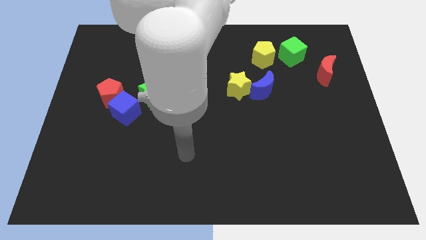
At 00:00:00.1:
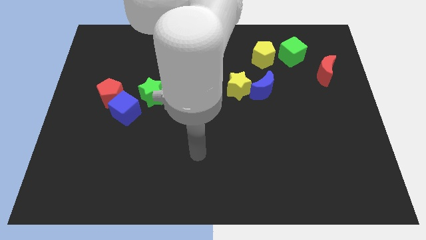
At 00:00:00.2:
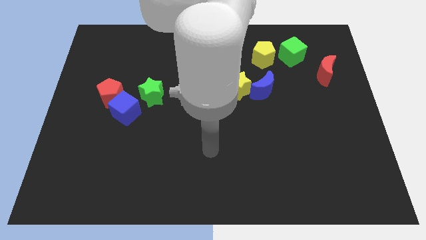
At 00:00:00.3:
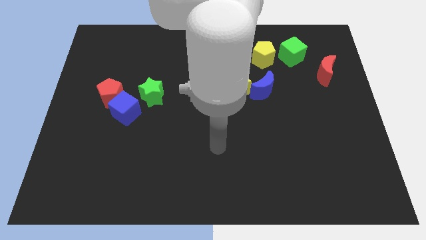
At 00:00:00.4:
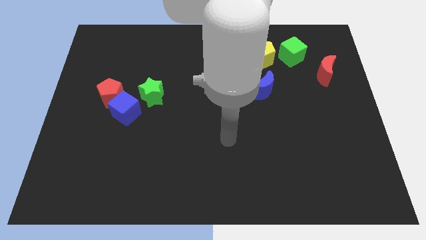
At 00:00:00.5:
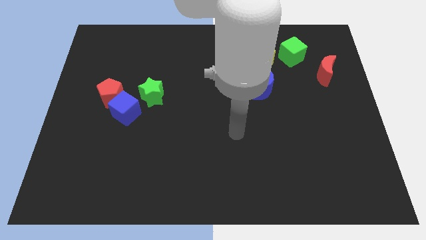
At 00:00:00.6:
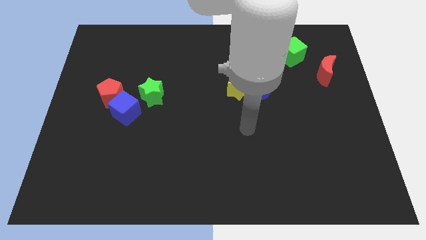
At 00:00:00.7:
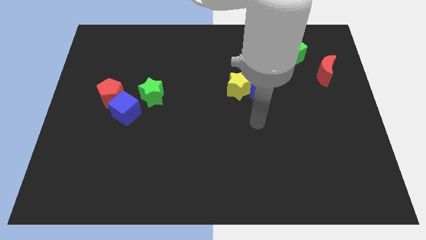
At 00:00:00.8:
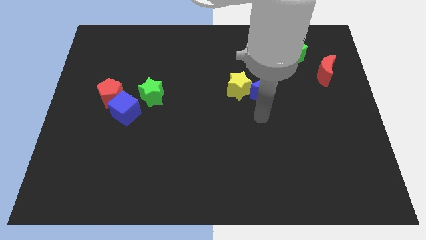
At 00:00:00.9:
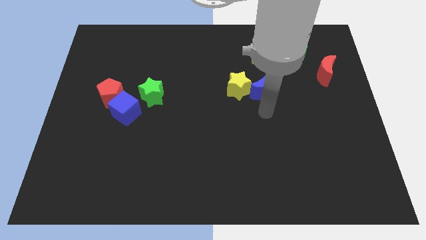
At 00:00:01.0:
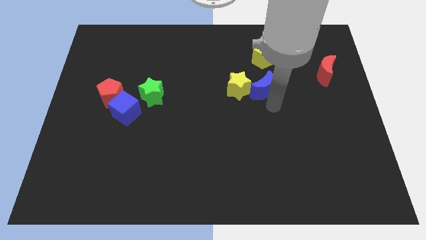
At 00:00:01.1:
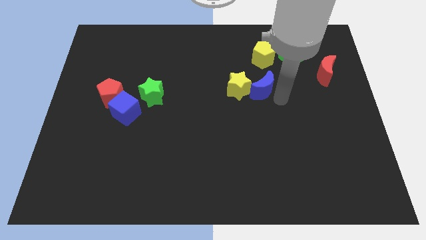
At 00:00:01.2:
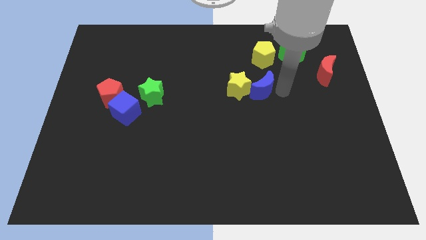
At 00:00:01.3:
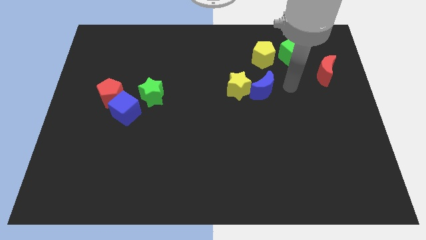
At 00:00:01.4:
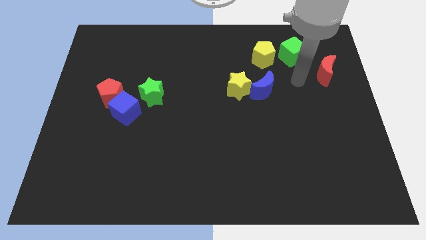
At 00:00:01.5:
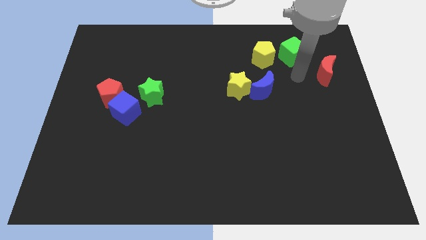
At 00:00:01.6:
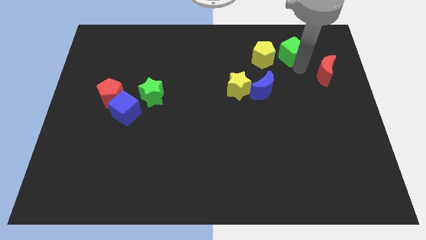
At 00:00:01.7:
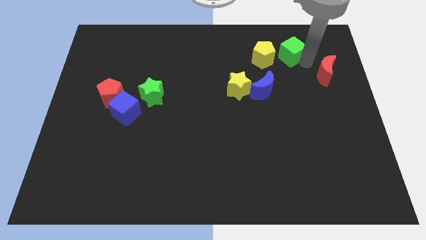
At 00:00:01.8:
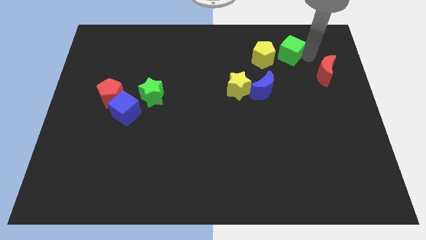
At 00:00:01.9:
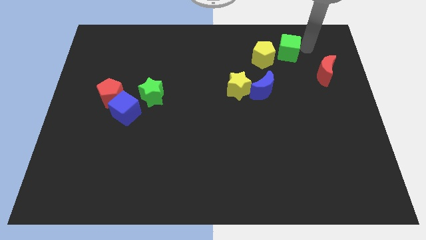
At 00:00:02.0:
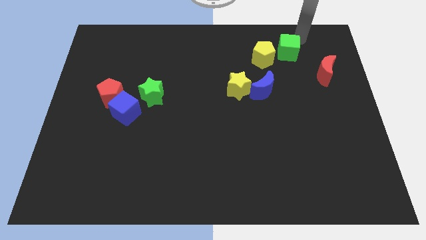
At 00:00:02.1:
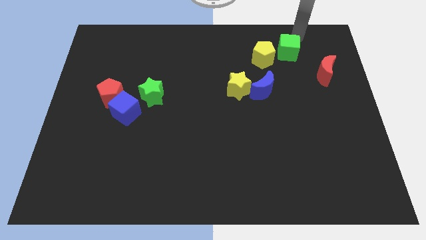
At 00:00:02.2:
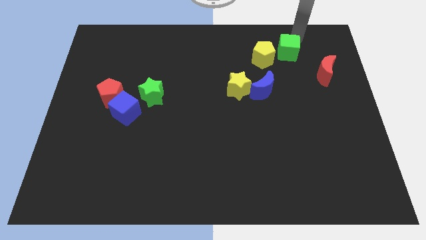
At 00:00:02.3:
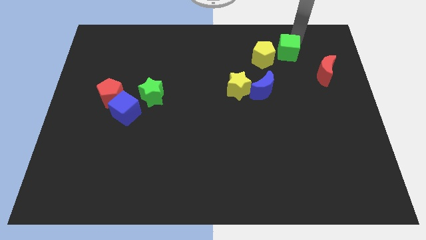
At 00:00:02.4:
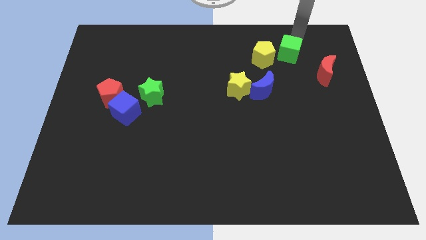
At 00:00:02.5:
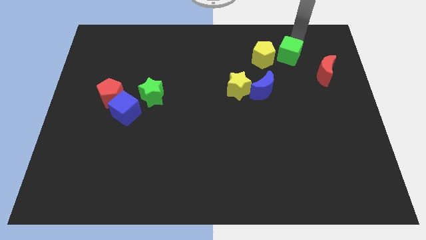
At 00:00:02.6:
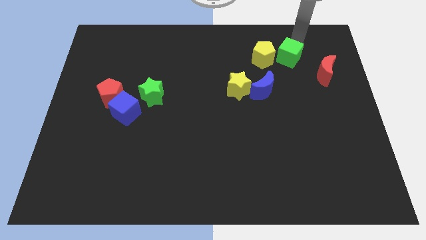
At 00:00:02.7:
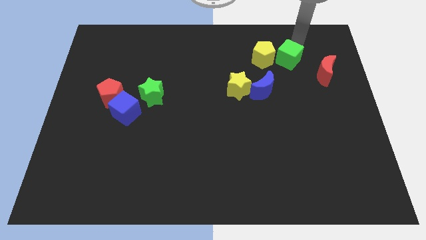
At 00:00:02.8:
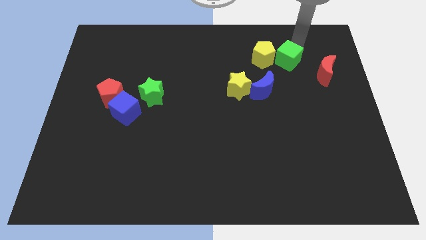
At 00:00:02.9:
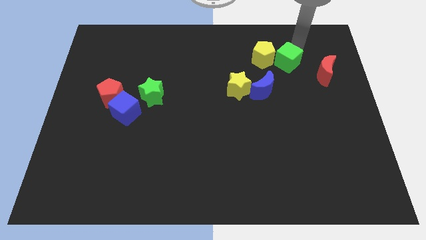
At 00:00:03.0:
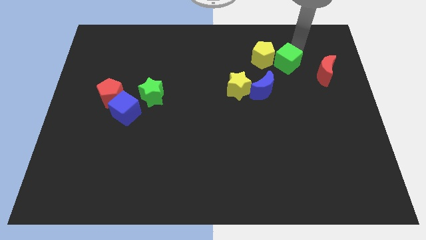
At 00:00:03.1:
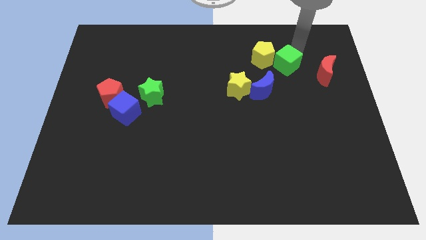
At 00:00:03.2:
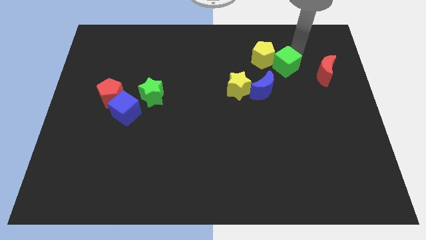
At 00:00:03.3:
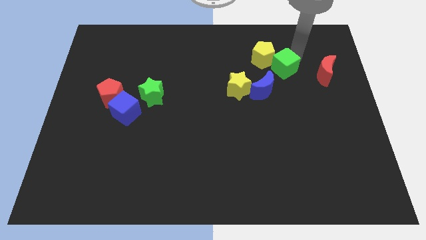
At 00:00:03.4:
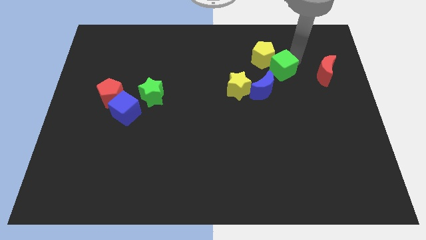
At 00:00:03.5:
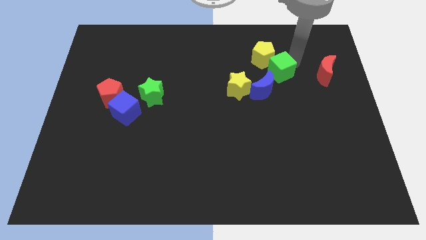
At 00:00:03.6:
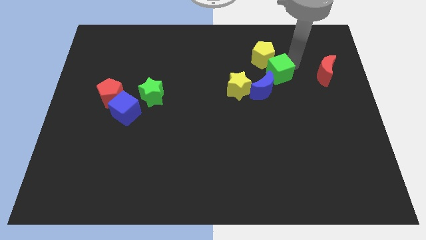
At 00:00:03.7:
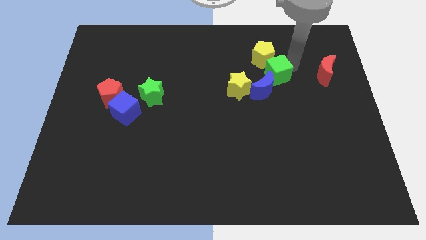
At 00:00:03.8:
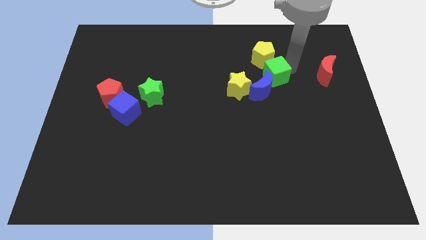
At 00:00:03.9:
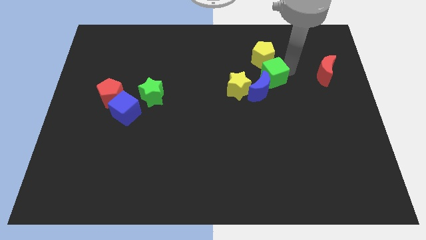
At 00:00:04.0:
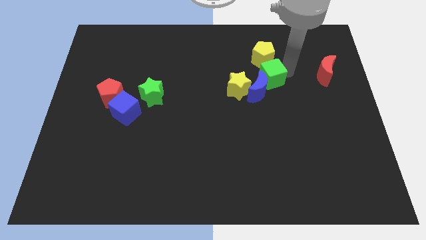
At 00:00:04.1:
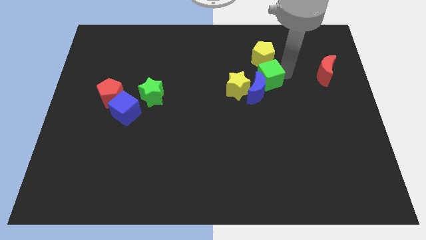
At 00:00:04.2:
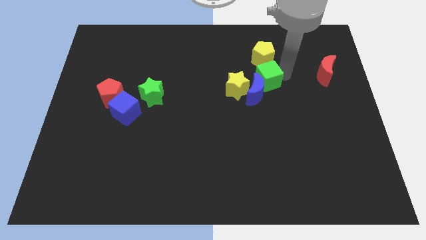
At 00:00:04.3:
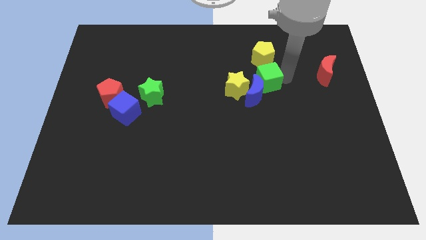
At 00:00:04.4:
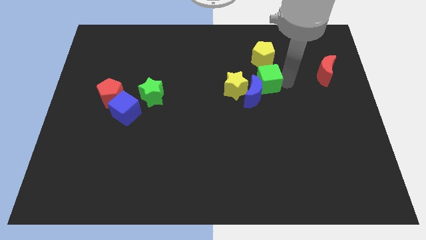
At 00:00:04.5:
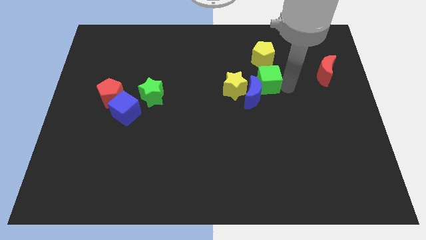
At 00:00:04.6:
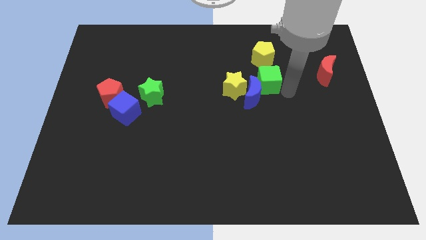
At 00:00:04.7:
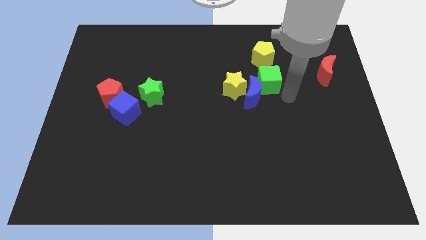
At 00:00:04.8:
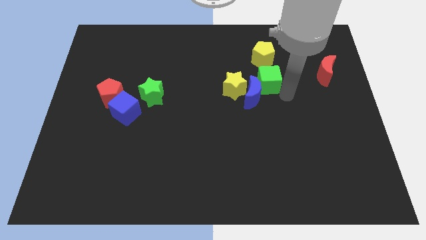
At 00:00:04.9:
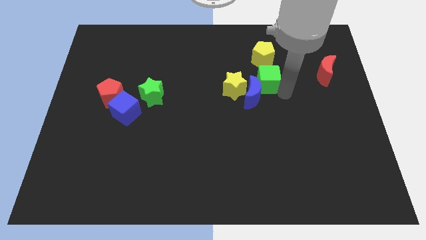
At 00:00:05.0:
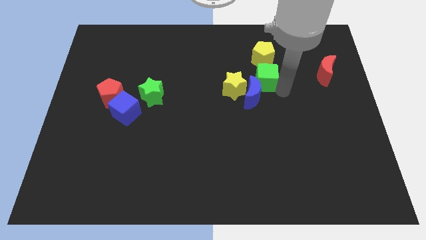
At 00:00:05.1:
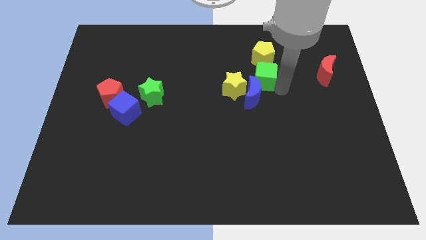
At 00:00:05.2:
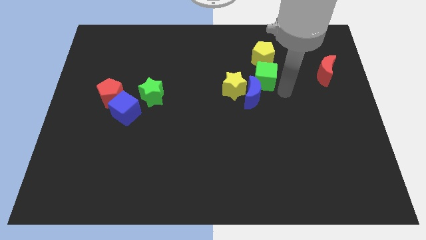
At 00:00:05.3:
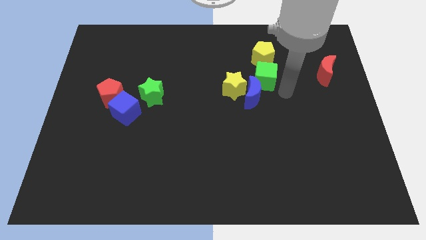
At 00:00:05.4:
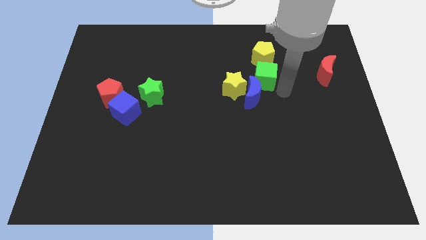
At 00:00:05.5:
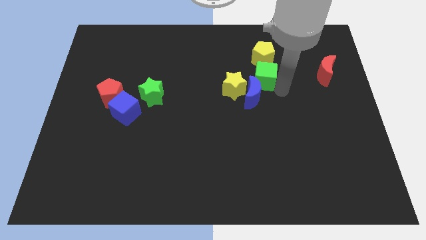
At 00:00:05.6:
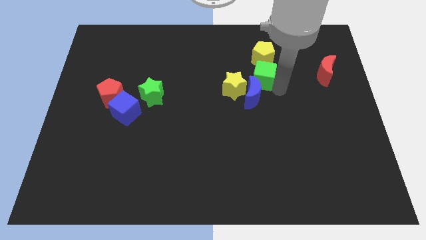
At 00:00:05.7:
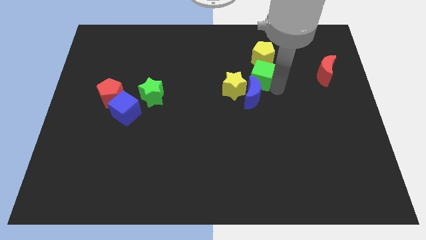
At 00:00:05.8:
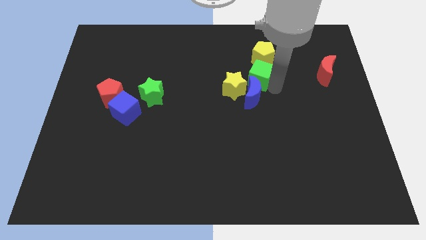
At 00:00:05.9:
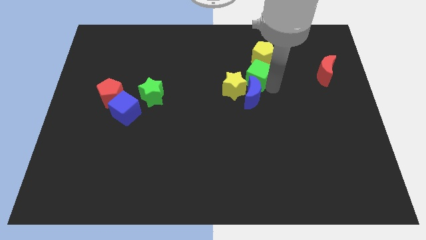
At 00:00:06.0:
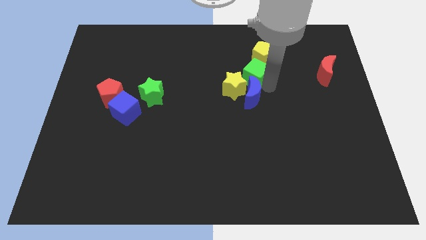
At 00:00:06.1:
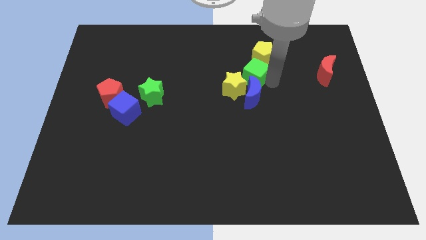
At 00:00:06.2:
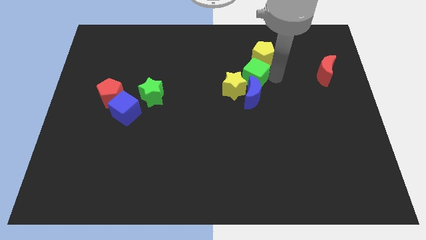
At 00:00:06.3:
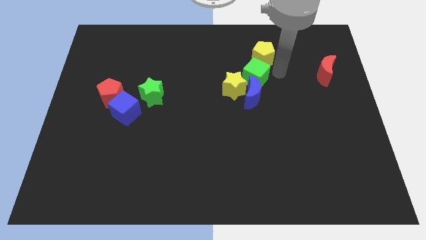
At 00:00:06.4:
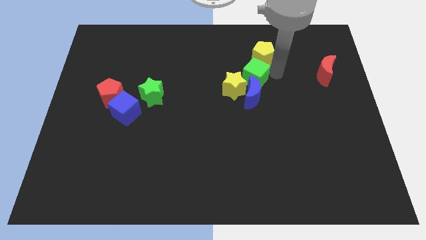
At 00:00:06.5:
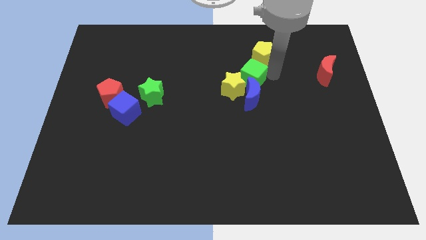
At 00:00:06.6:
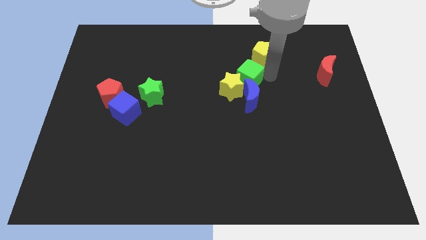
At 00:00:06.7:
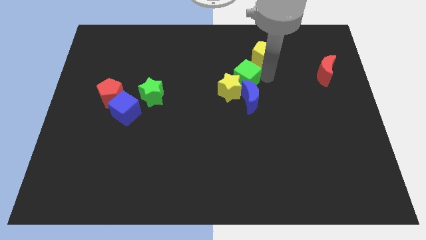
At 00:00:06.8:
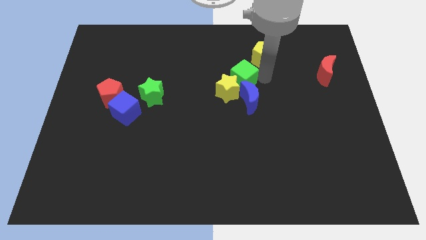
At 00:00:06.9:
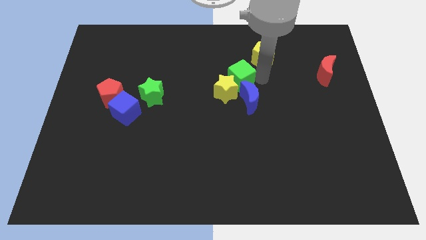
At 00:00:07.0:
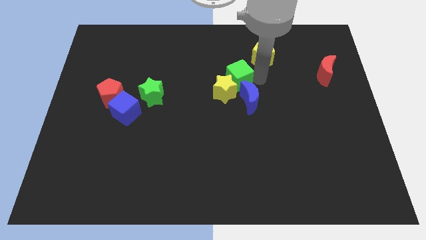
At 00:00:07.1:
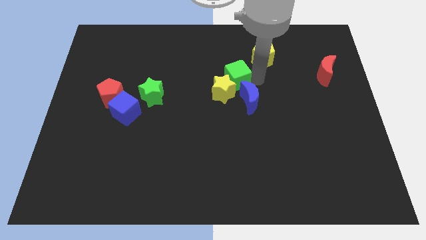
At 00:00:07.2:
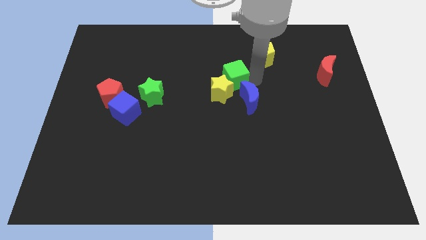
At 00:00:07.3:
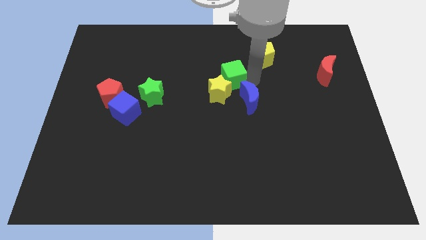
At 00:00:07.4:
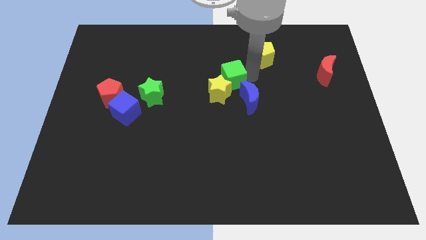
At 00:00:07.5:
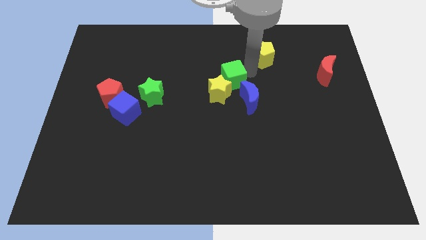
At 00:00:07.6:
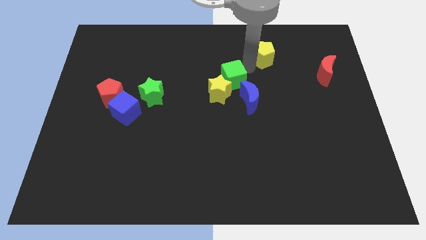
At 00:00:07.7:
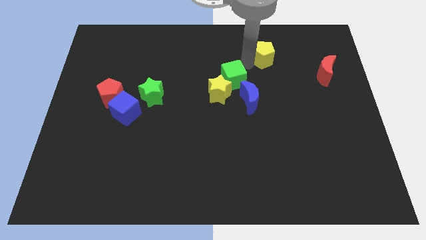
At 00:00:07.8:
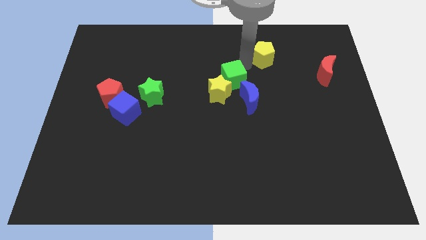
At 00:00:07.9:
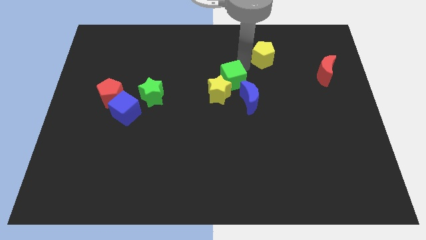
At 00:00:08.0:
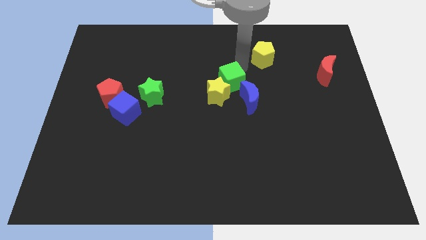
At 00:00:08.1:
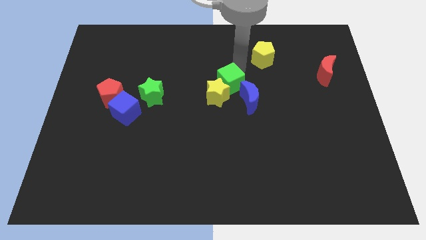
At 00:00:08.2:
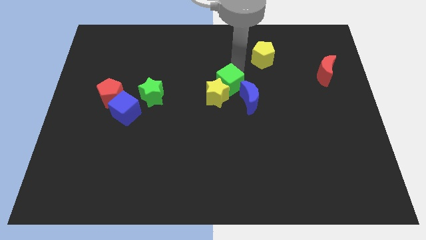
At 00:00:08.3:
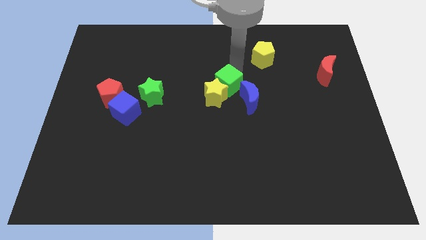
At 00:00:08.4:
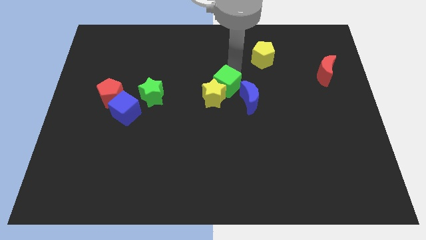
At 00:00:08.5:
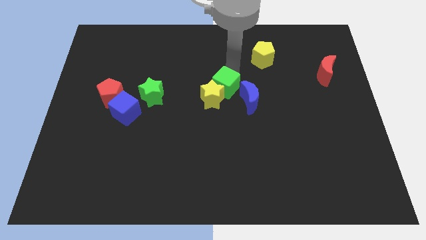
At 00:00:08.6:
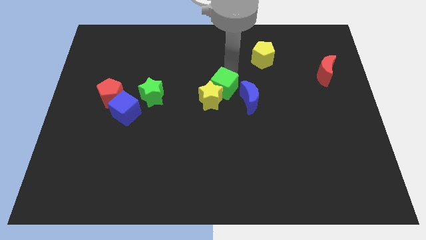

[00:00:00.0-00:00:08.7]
move the green cube downwards and left diagonally
